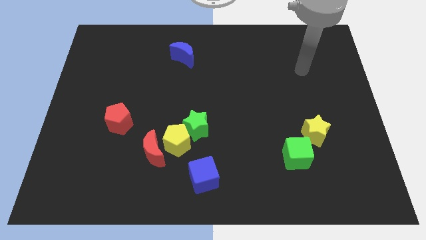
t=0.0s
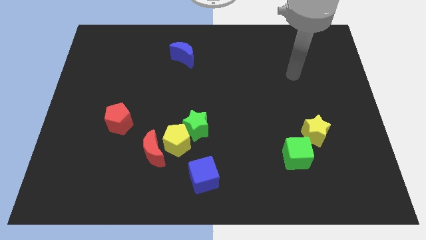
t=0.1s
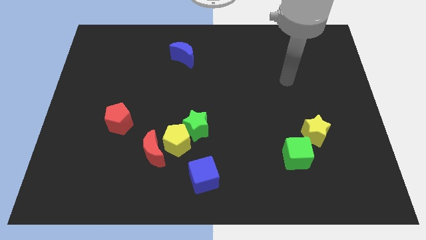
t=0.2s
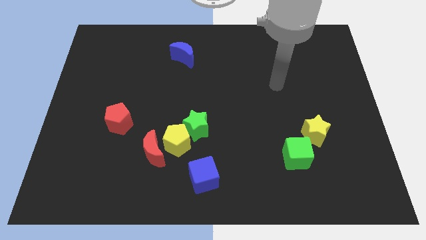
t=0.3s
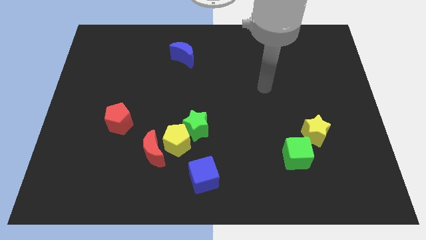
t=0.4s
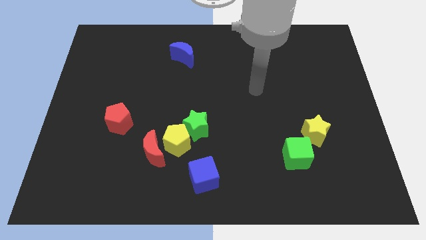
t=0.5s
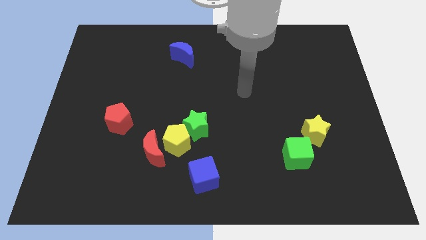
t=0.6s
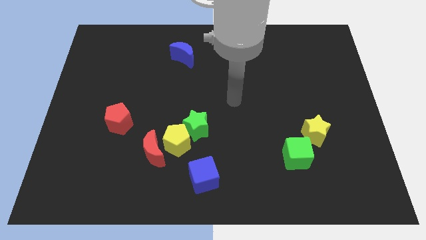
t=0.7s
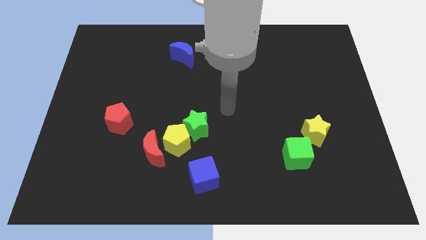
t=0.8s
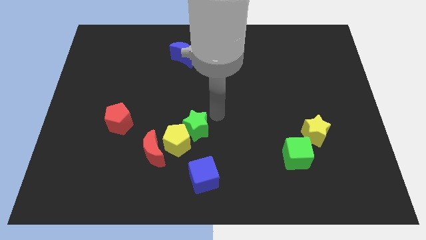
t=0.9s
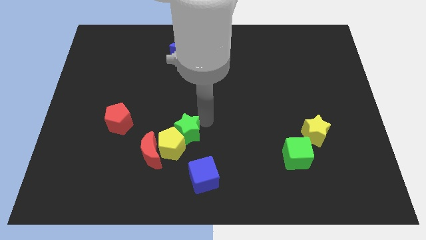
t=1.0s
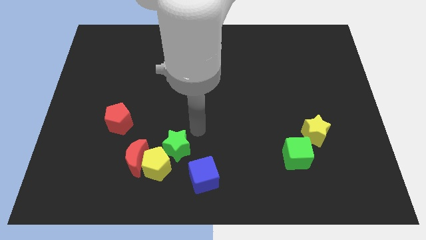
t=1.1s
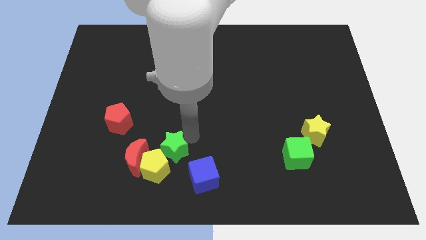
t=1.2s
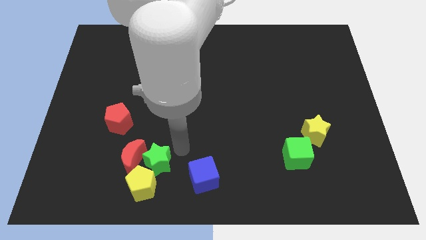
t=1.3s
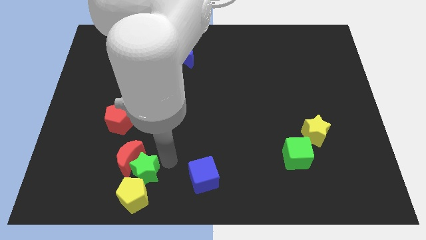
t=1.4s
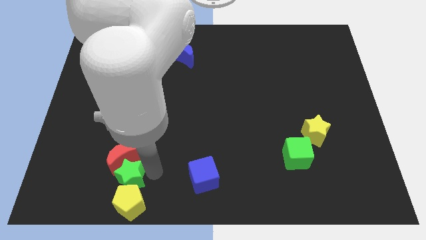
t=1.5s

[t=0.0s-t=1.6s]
move the red moon away from the yellow pentagon

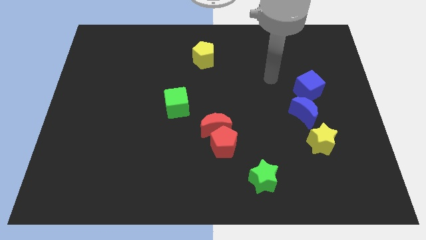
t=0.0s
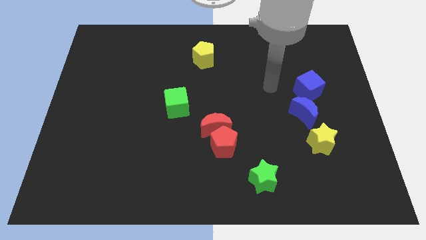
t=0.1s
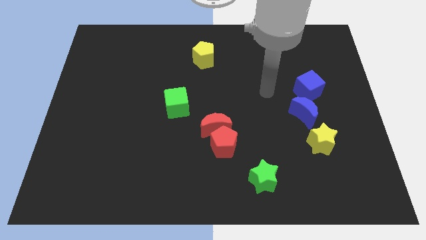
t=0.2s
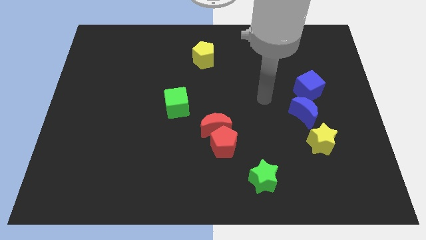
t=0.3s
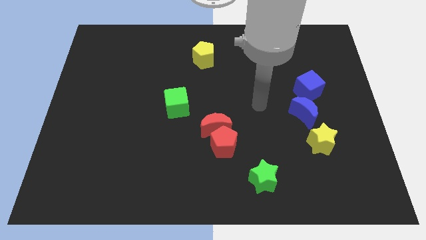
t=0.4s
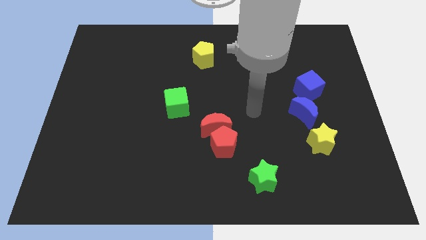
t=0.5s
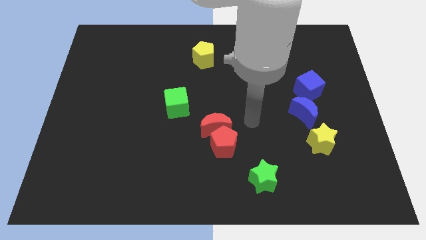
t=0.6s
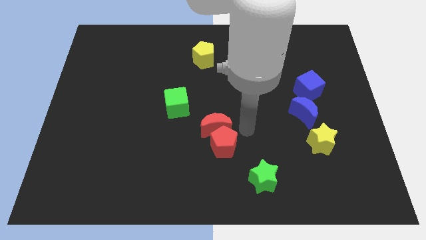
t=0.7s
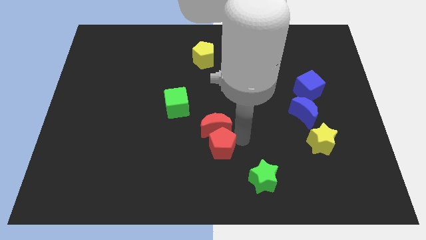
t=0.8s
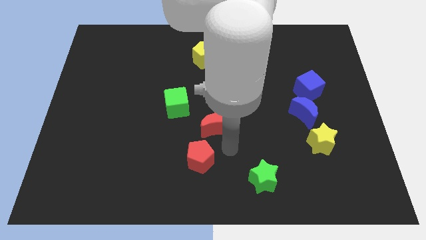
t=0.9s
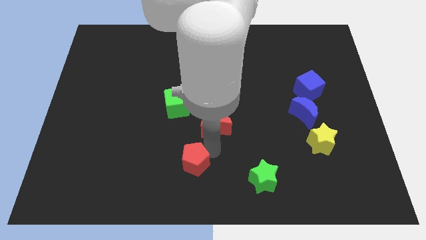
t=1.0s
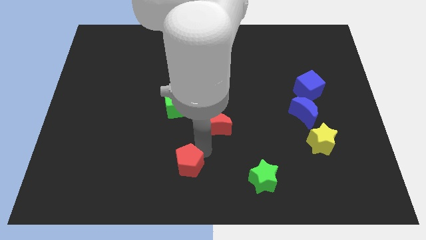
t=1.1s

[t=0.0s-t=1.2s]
move the red moon away from the red pentagon

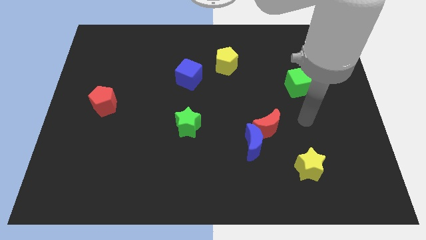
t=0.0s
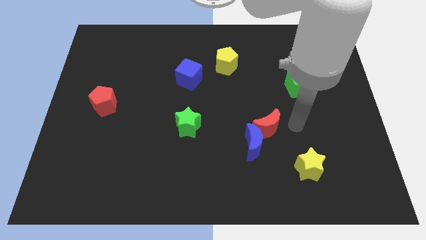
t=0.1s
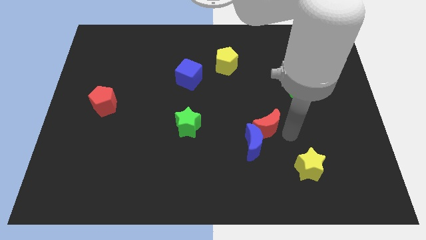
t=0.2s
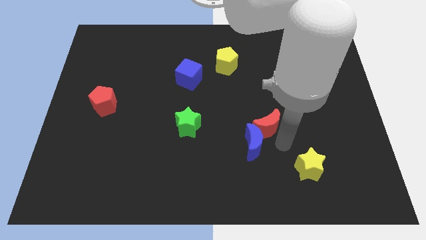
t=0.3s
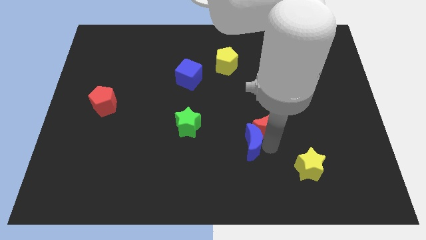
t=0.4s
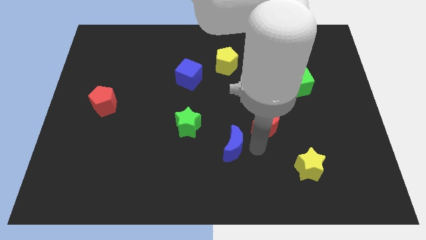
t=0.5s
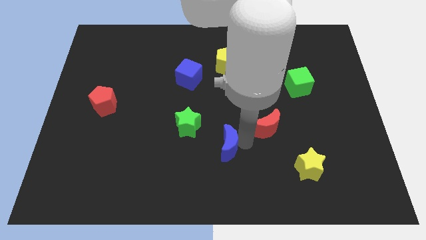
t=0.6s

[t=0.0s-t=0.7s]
separate the red moon from the blue moon

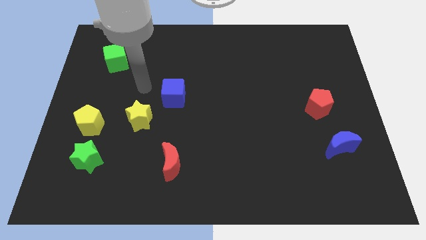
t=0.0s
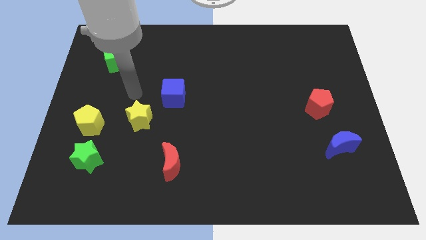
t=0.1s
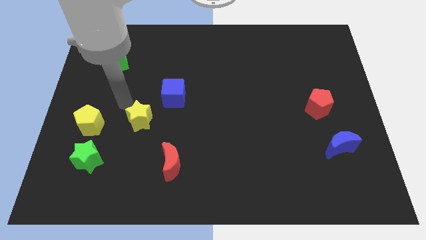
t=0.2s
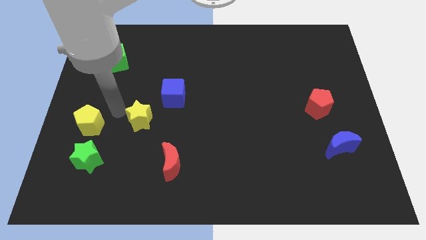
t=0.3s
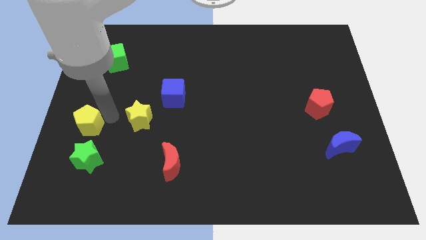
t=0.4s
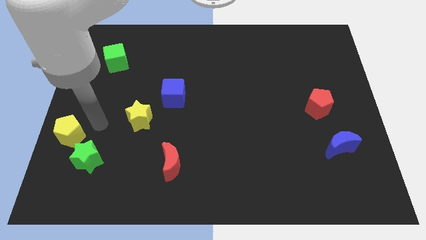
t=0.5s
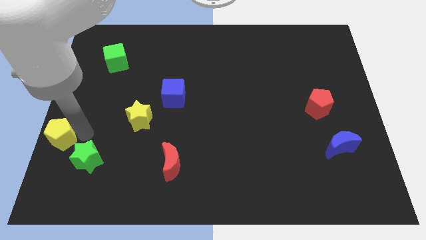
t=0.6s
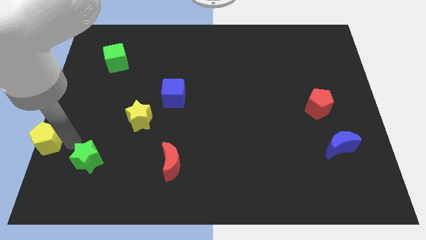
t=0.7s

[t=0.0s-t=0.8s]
move the green star away from the yellow pentagon

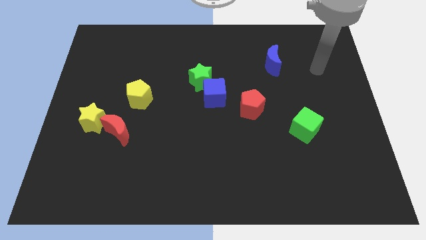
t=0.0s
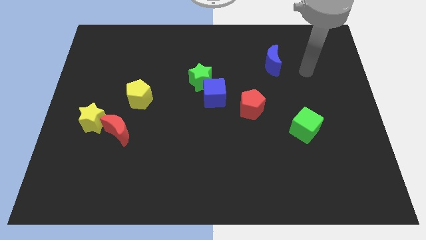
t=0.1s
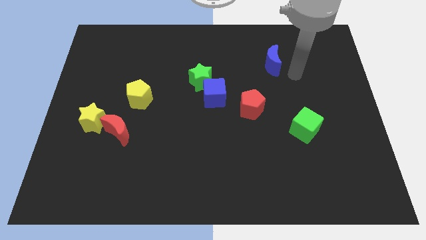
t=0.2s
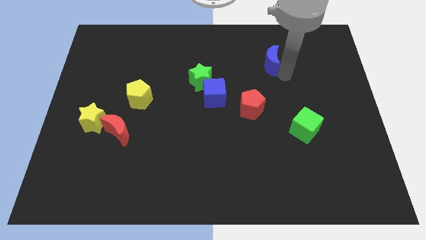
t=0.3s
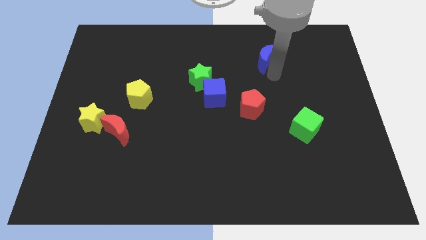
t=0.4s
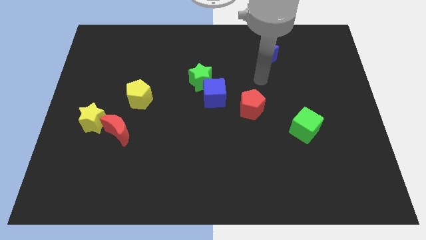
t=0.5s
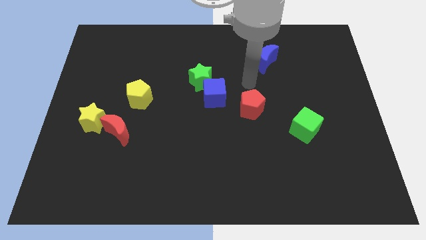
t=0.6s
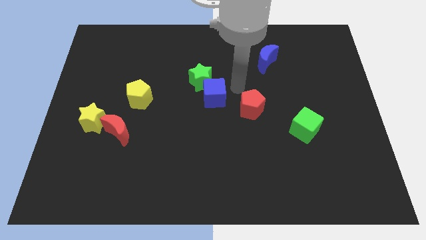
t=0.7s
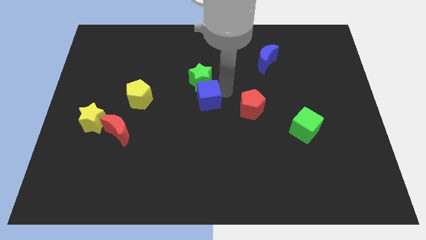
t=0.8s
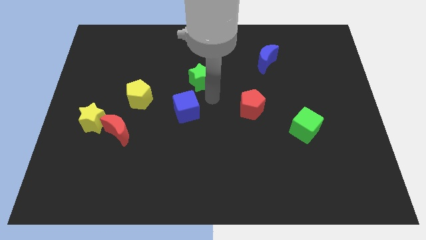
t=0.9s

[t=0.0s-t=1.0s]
pull the green star apart from the blue cube

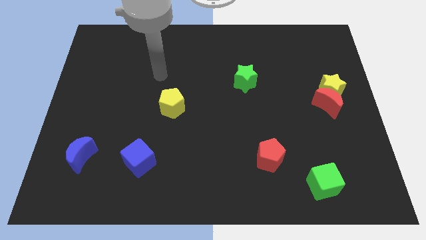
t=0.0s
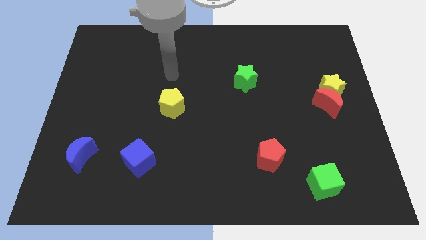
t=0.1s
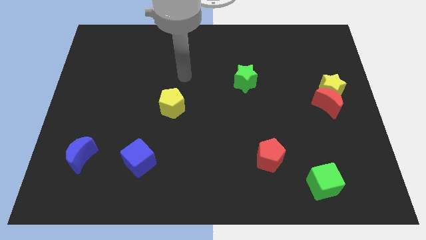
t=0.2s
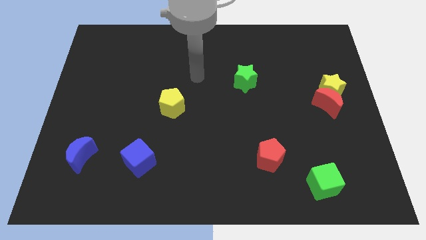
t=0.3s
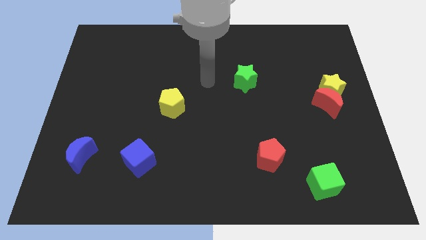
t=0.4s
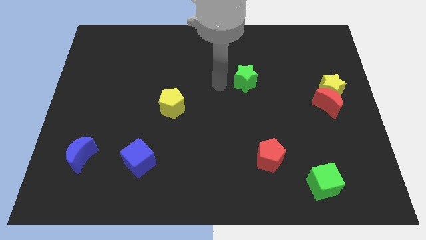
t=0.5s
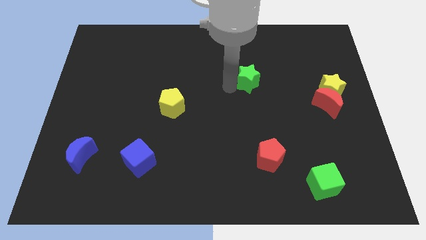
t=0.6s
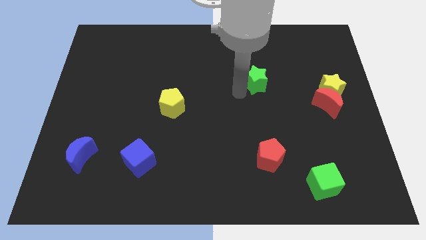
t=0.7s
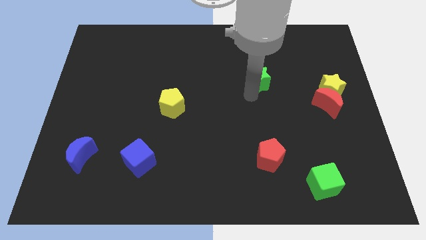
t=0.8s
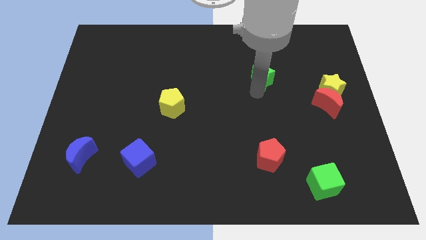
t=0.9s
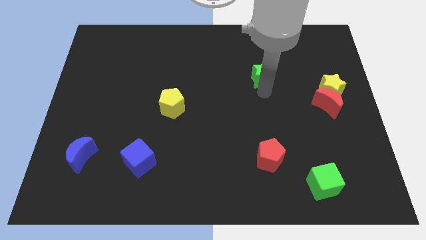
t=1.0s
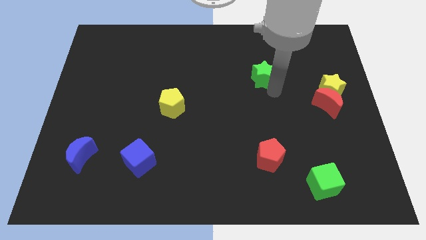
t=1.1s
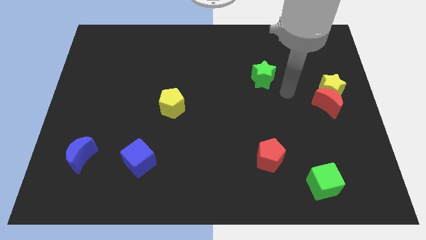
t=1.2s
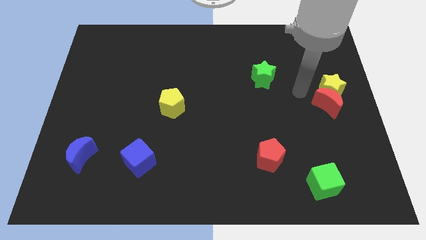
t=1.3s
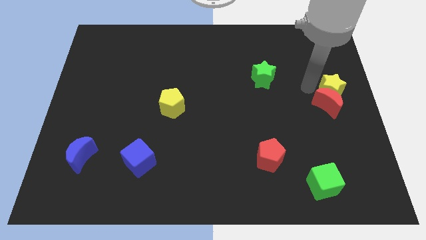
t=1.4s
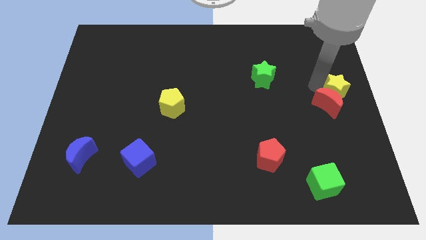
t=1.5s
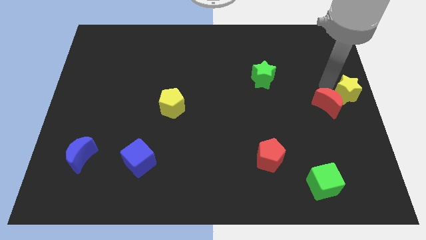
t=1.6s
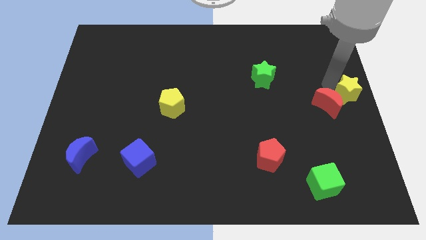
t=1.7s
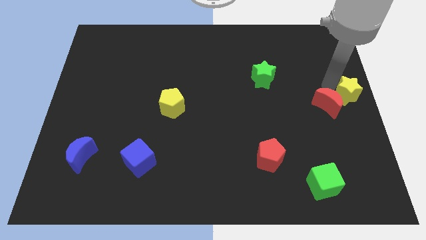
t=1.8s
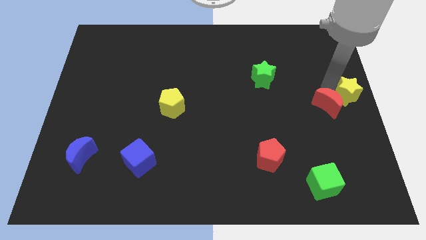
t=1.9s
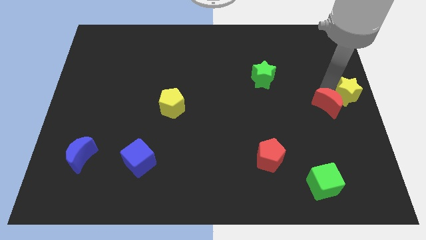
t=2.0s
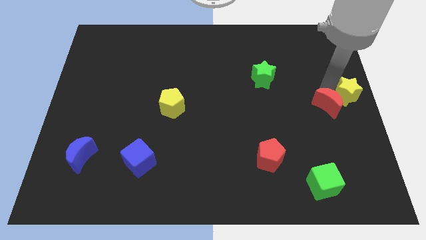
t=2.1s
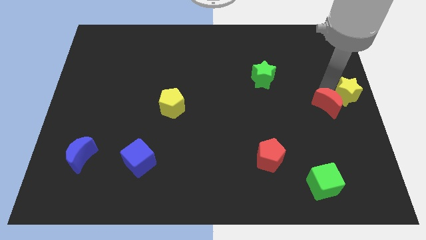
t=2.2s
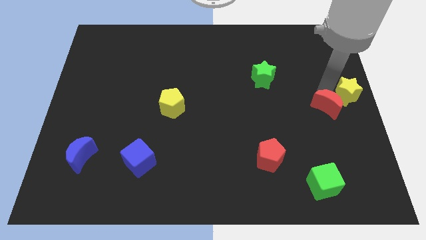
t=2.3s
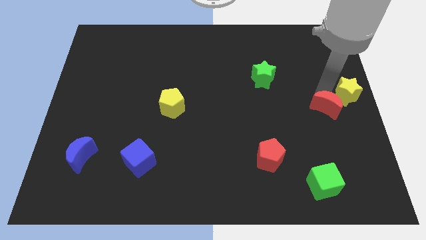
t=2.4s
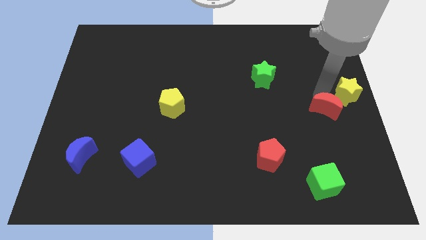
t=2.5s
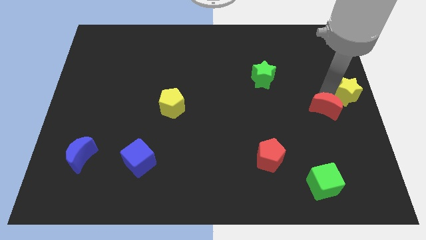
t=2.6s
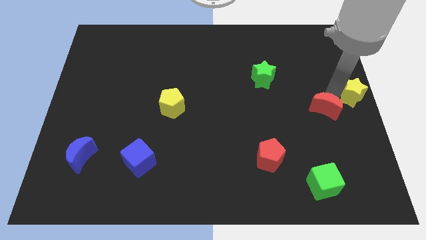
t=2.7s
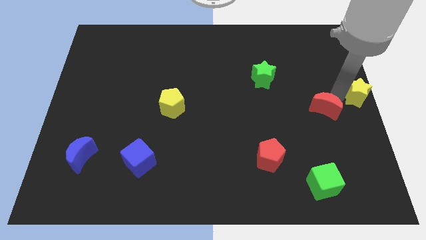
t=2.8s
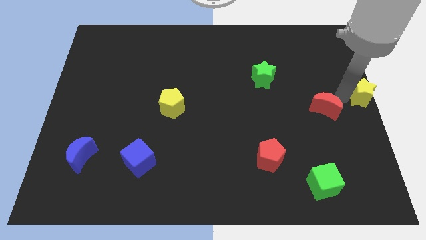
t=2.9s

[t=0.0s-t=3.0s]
pull the red moon apart from the yellow star

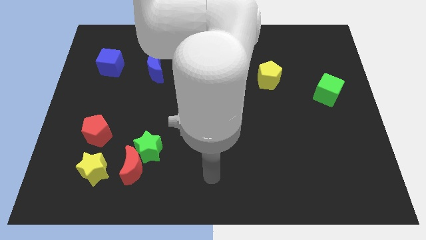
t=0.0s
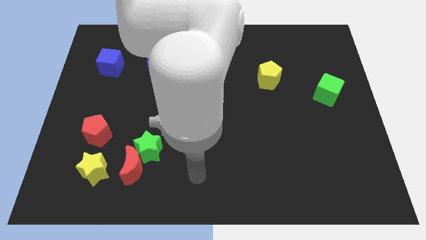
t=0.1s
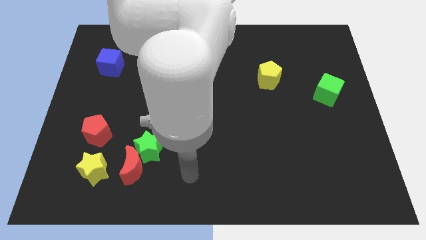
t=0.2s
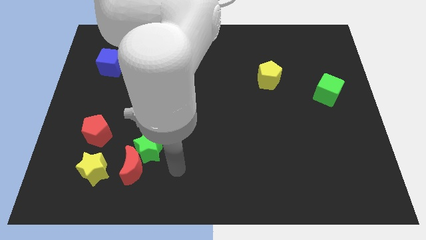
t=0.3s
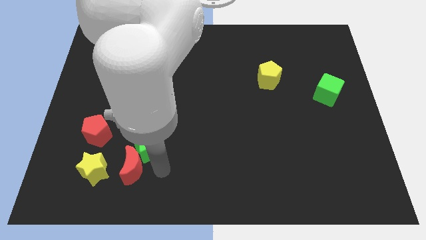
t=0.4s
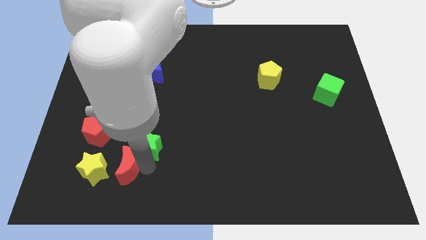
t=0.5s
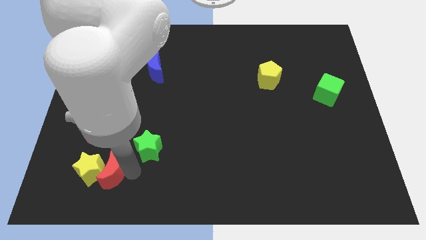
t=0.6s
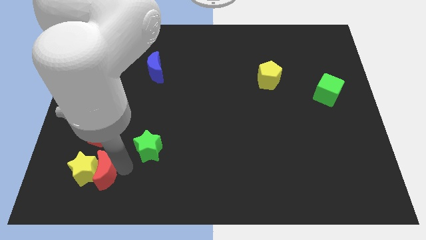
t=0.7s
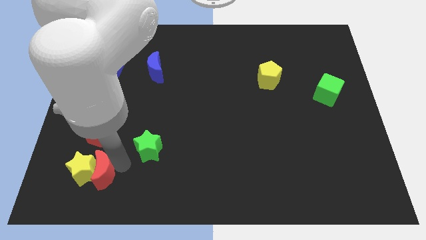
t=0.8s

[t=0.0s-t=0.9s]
pull the green star apart from the red moon
